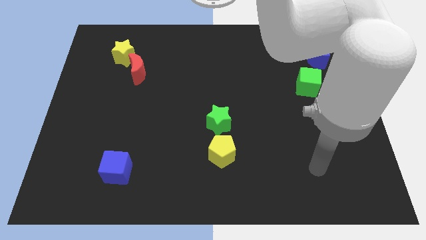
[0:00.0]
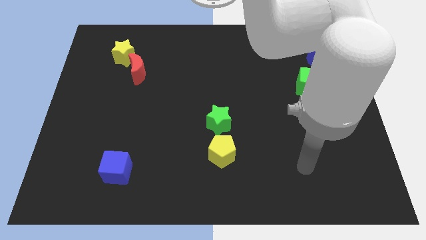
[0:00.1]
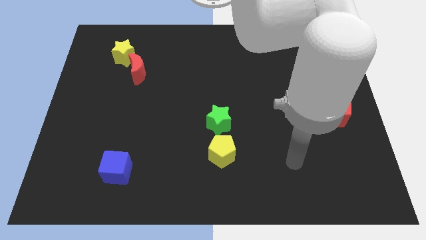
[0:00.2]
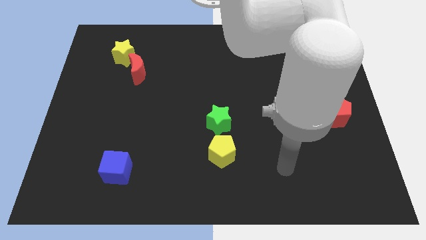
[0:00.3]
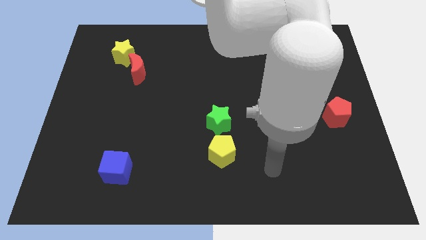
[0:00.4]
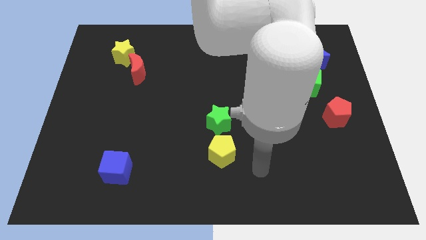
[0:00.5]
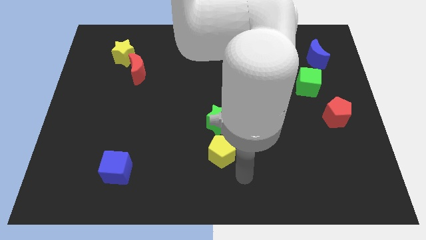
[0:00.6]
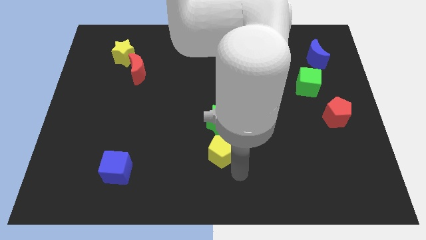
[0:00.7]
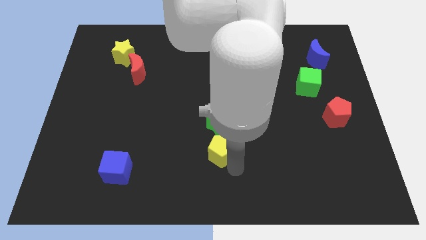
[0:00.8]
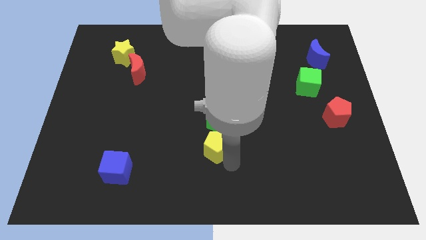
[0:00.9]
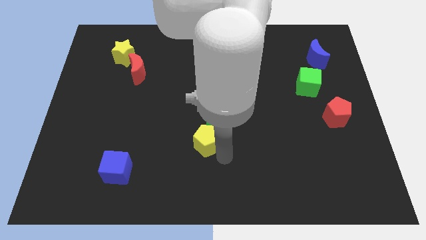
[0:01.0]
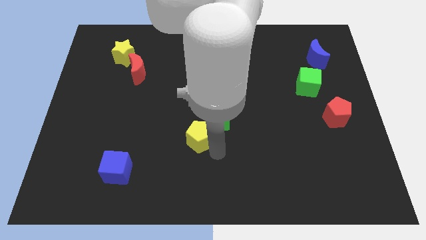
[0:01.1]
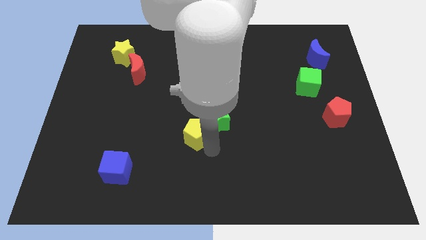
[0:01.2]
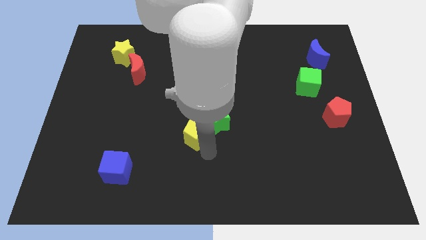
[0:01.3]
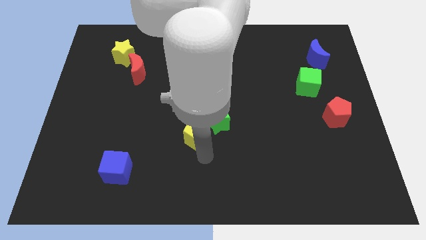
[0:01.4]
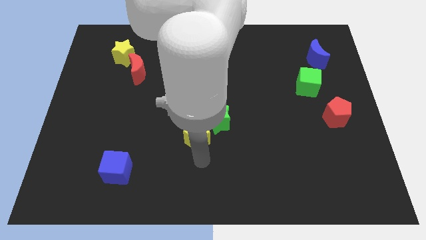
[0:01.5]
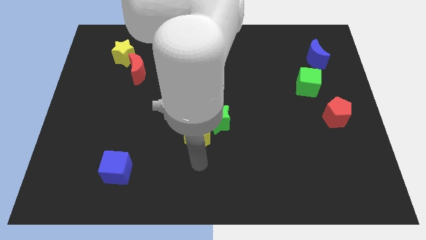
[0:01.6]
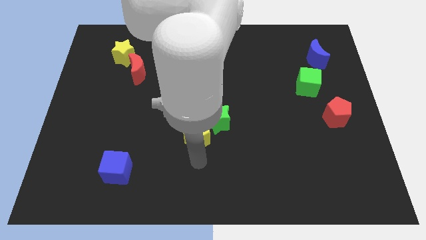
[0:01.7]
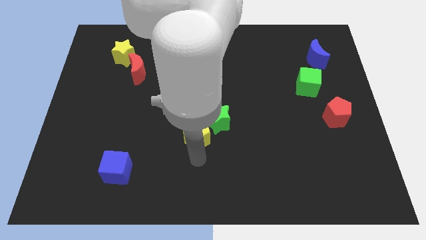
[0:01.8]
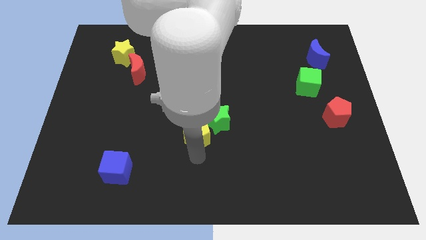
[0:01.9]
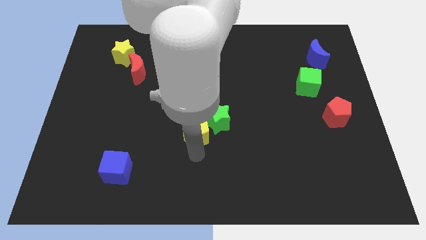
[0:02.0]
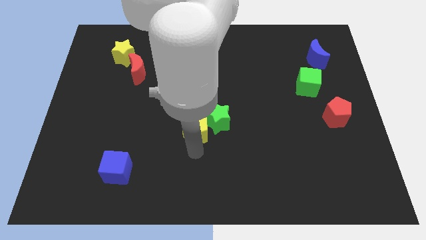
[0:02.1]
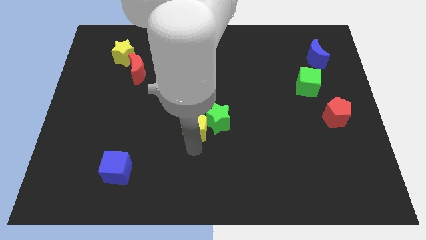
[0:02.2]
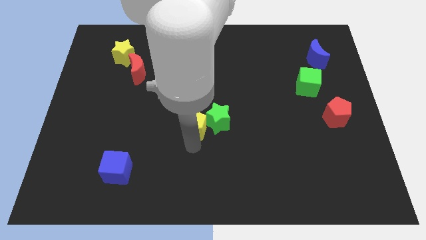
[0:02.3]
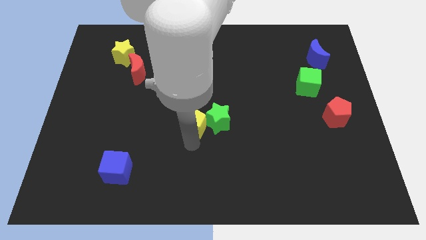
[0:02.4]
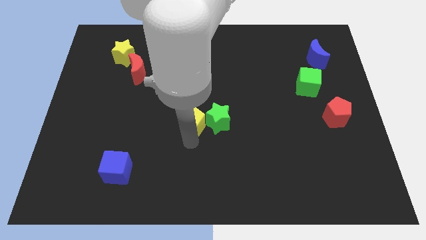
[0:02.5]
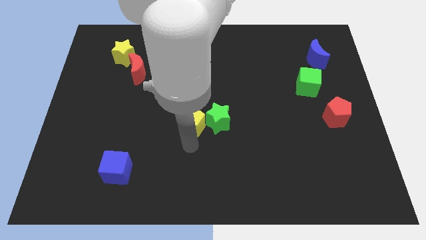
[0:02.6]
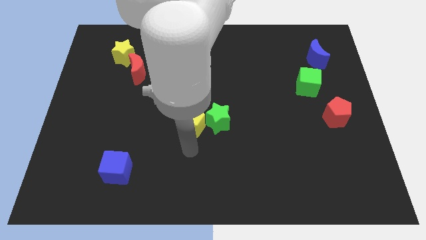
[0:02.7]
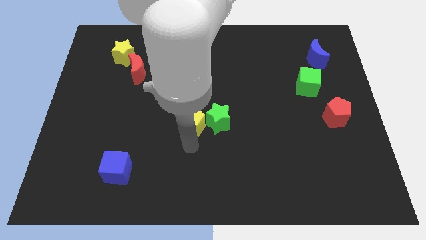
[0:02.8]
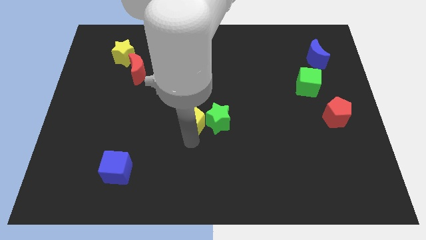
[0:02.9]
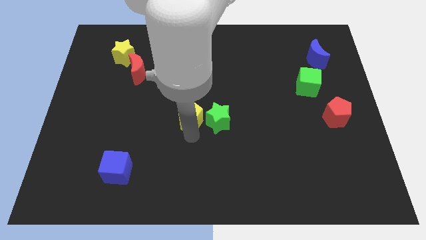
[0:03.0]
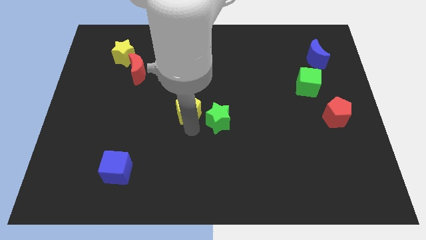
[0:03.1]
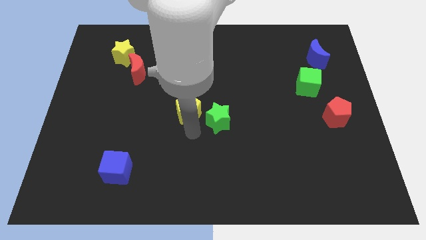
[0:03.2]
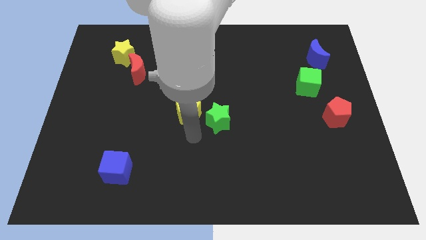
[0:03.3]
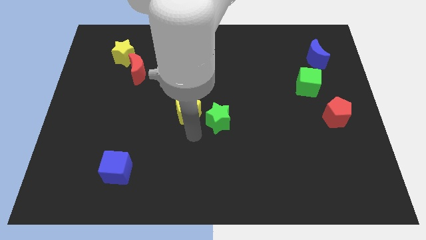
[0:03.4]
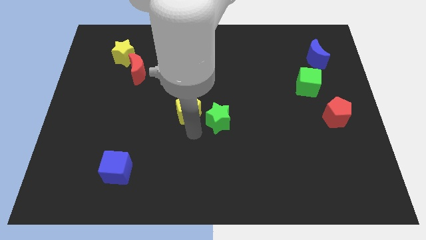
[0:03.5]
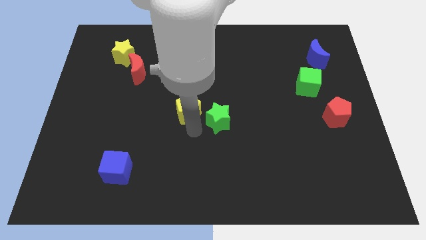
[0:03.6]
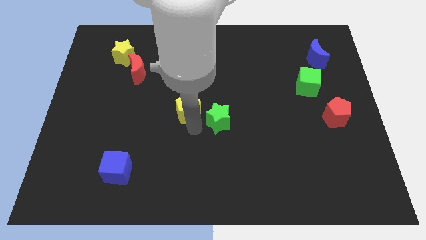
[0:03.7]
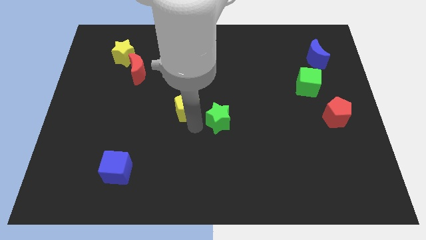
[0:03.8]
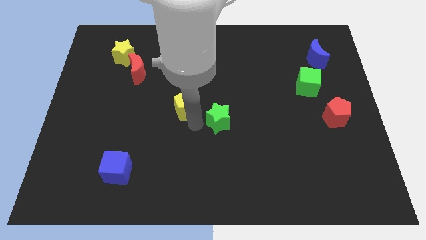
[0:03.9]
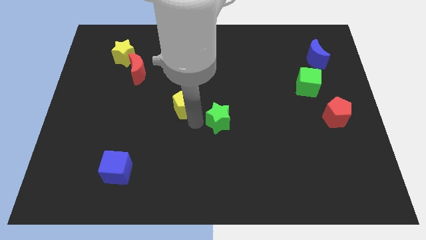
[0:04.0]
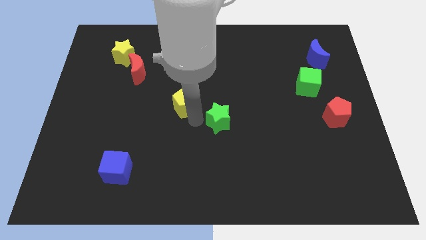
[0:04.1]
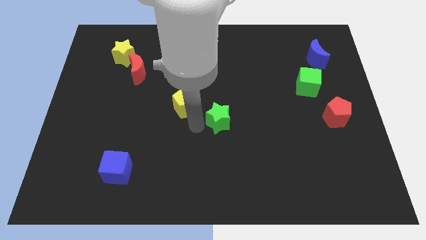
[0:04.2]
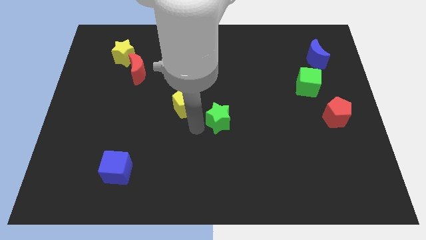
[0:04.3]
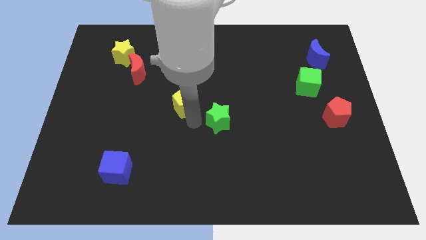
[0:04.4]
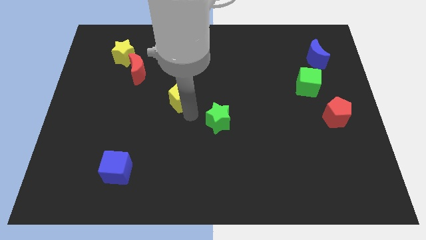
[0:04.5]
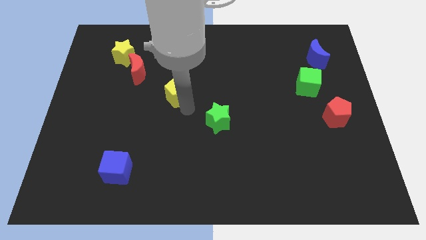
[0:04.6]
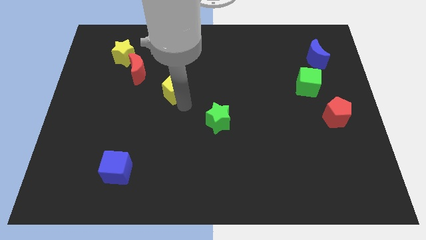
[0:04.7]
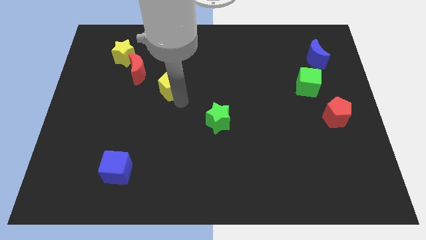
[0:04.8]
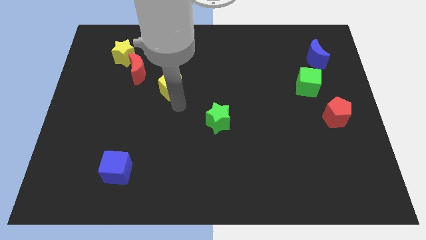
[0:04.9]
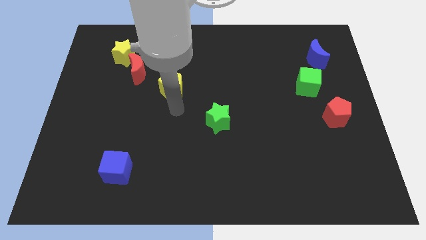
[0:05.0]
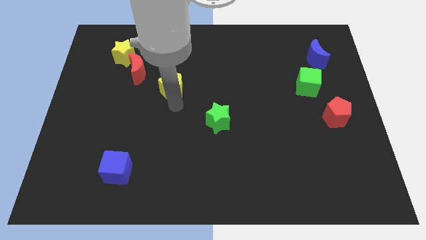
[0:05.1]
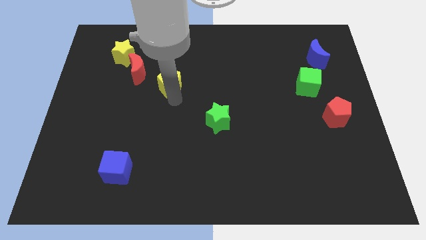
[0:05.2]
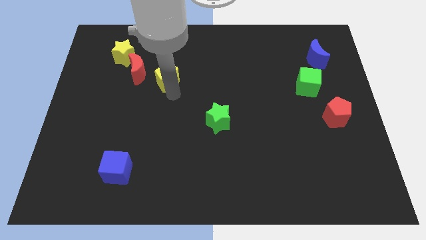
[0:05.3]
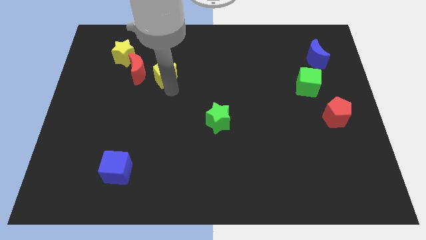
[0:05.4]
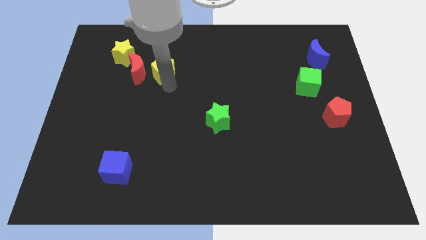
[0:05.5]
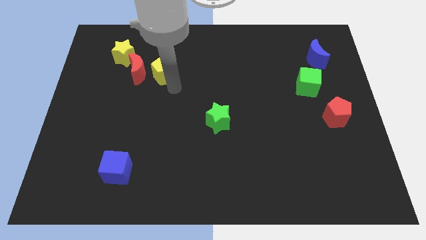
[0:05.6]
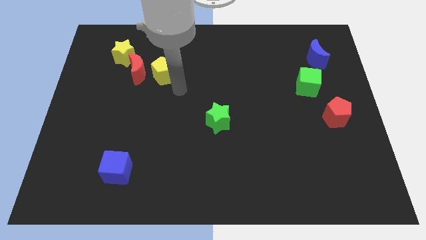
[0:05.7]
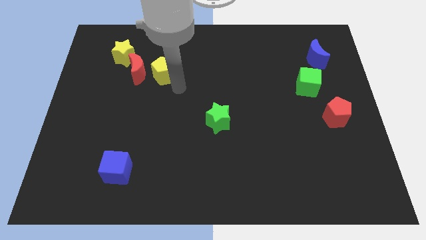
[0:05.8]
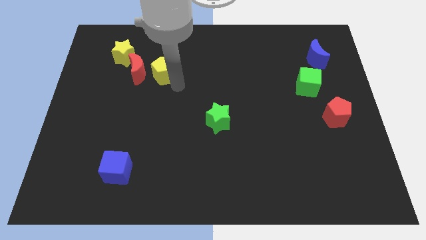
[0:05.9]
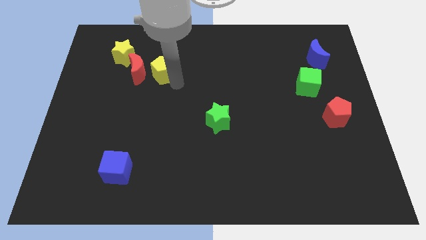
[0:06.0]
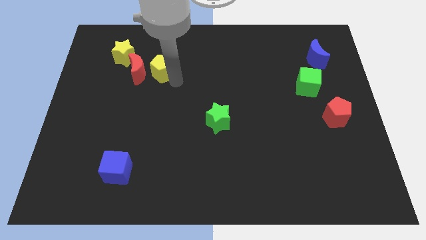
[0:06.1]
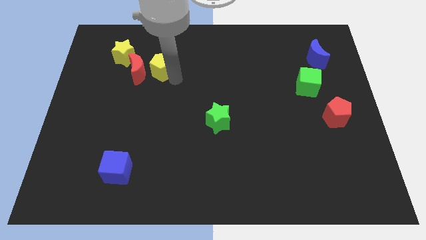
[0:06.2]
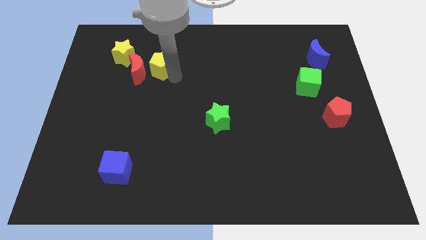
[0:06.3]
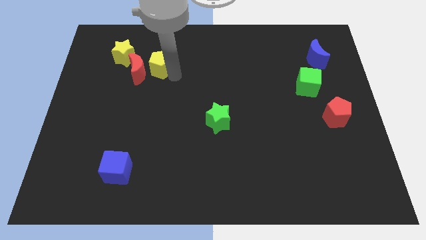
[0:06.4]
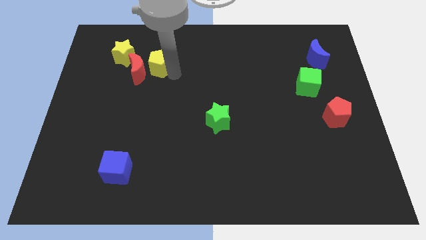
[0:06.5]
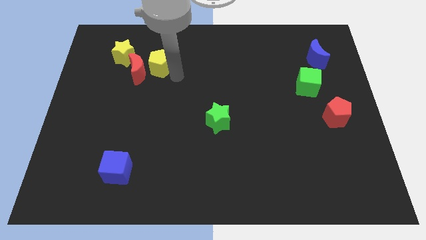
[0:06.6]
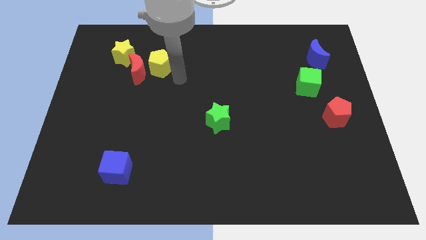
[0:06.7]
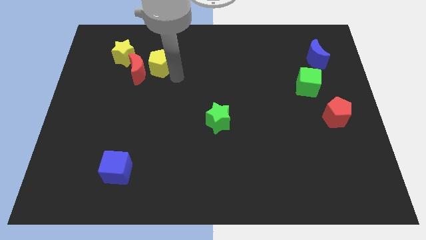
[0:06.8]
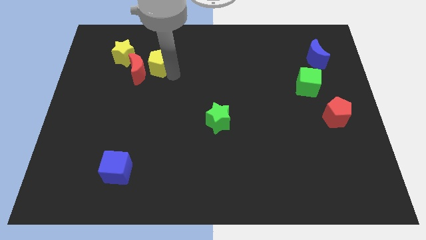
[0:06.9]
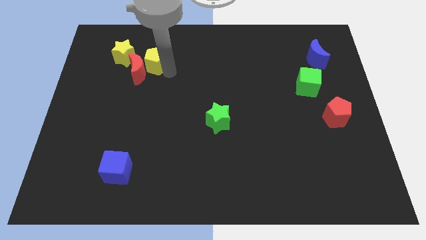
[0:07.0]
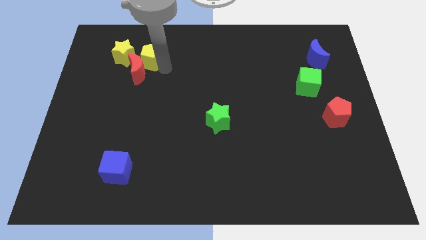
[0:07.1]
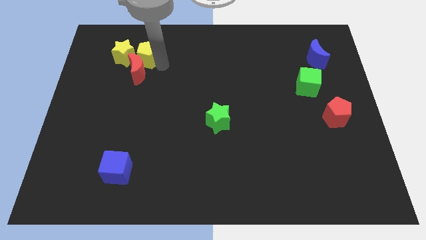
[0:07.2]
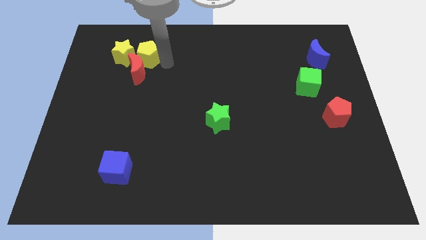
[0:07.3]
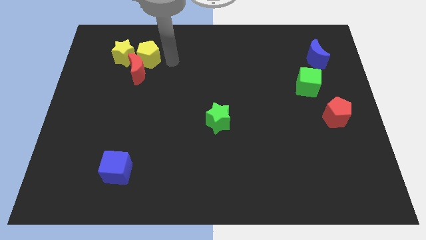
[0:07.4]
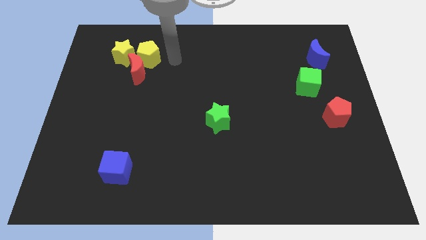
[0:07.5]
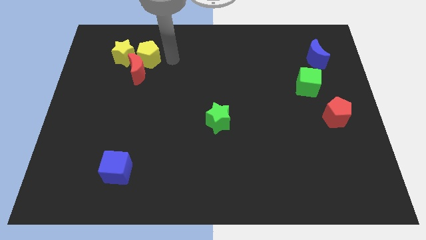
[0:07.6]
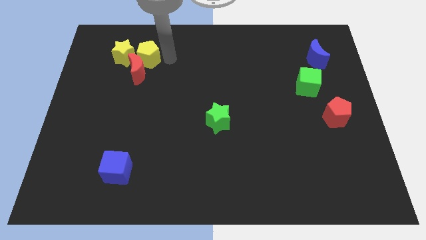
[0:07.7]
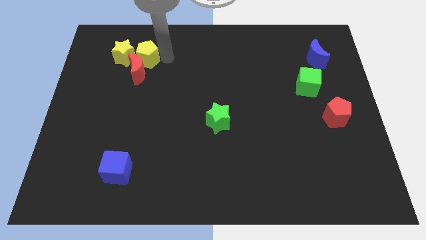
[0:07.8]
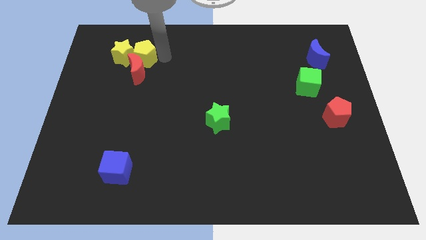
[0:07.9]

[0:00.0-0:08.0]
slide the yellow pentagon towards the yellow star
